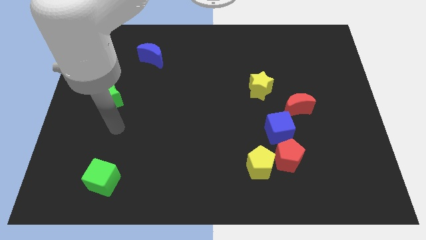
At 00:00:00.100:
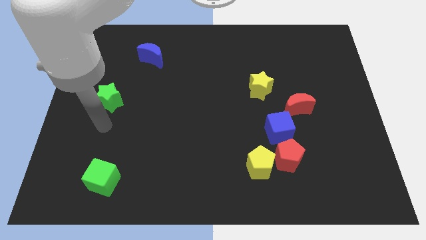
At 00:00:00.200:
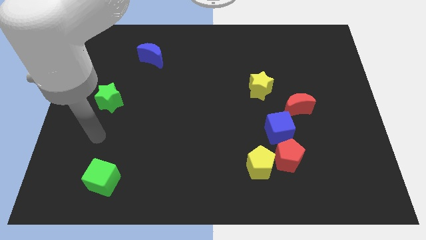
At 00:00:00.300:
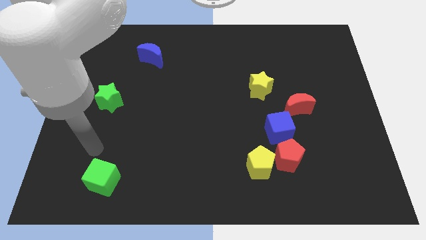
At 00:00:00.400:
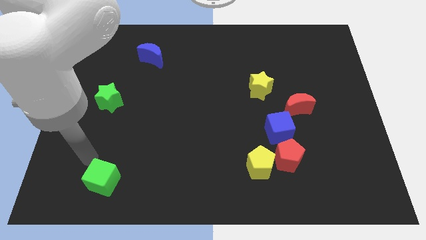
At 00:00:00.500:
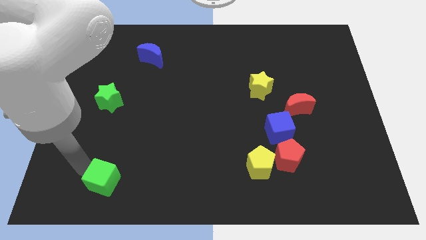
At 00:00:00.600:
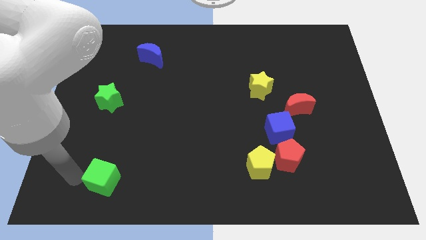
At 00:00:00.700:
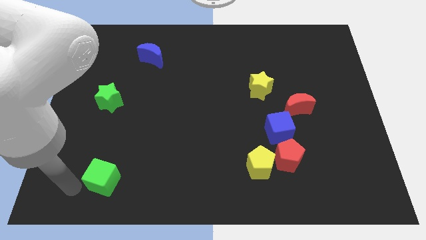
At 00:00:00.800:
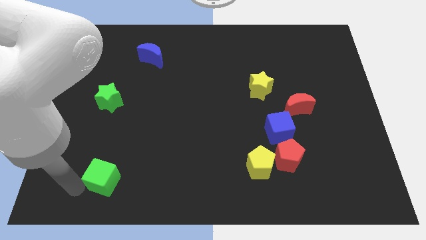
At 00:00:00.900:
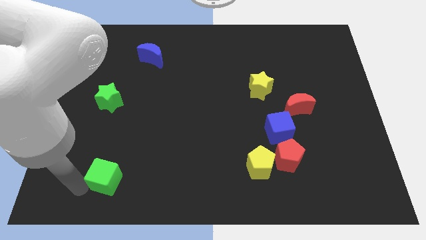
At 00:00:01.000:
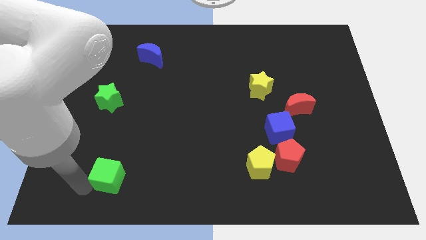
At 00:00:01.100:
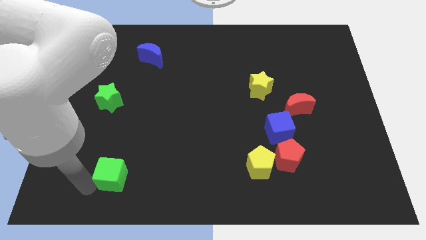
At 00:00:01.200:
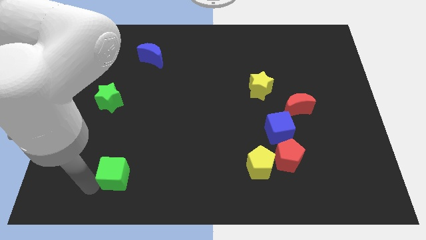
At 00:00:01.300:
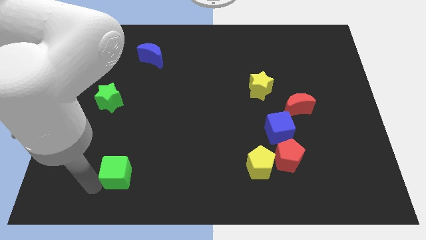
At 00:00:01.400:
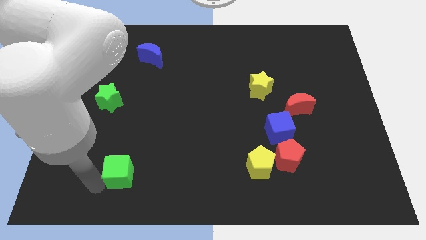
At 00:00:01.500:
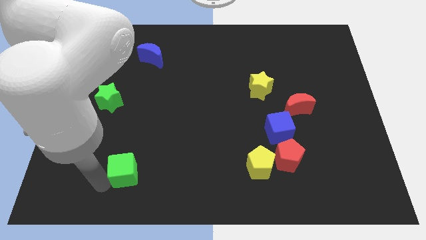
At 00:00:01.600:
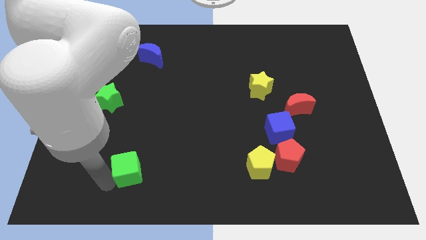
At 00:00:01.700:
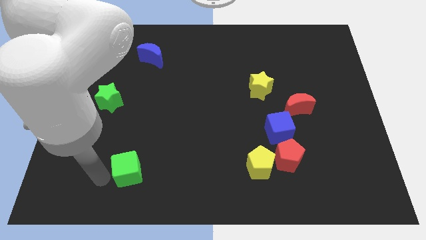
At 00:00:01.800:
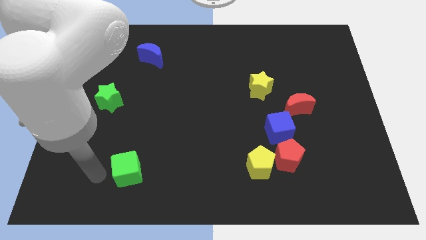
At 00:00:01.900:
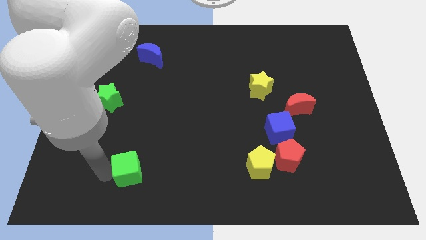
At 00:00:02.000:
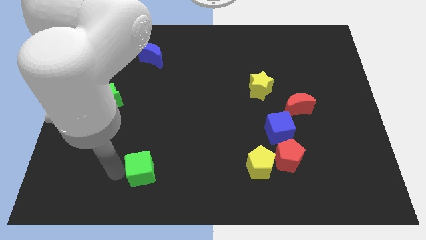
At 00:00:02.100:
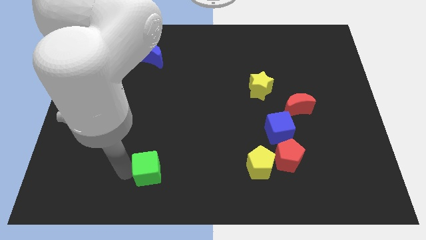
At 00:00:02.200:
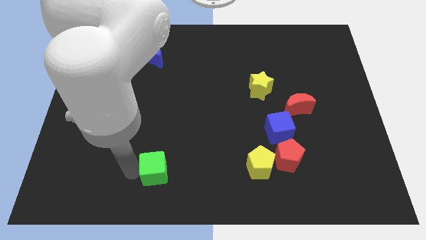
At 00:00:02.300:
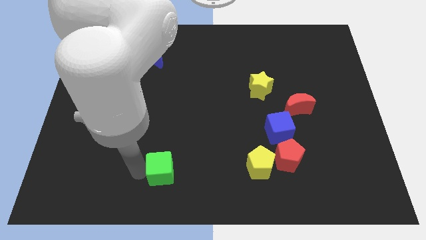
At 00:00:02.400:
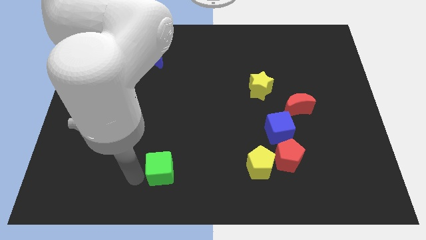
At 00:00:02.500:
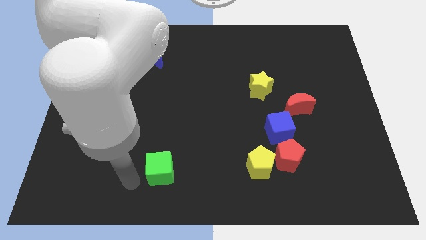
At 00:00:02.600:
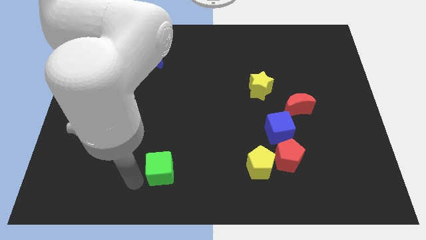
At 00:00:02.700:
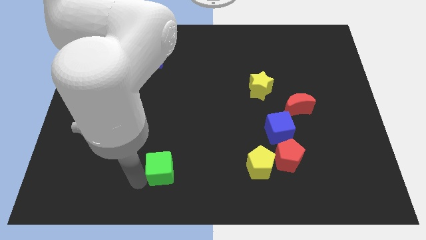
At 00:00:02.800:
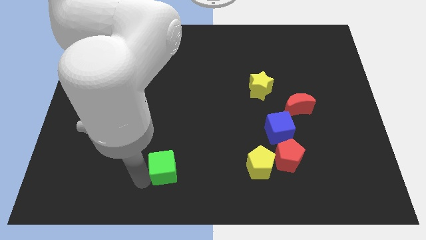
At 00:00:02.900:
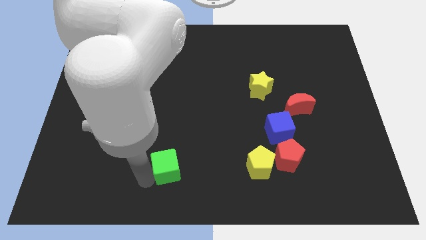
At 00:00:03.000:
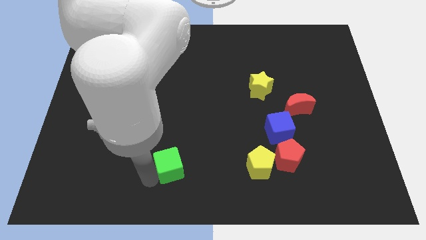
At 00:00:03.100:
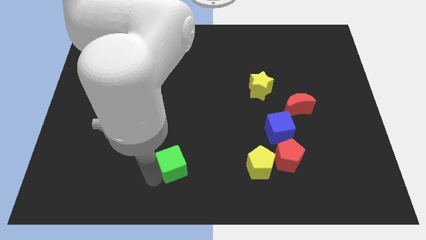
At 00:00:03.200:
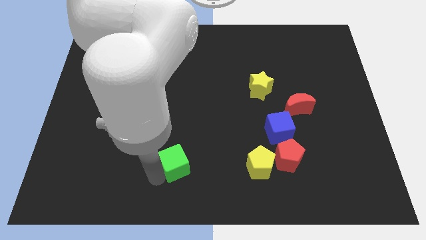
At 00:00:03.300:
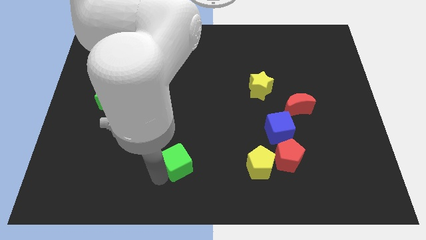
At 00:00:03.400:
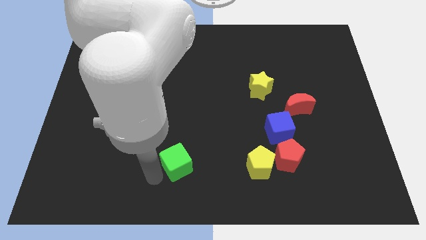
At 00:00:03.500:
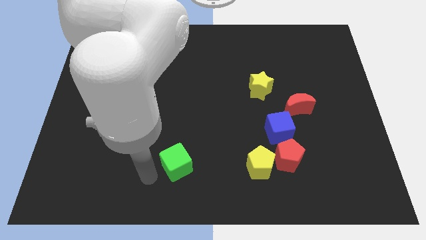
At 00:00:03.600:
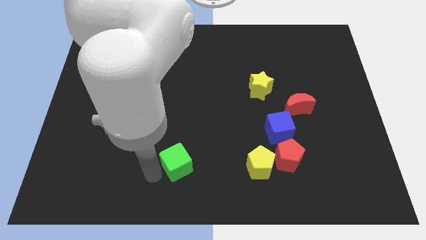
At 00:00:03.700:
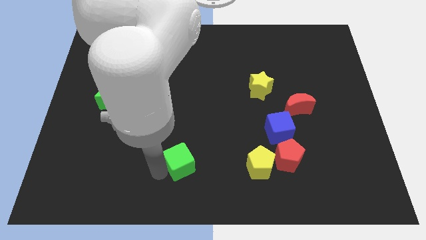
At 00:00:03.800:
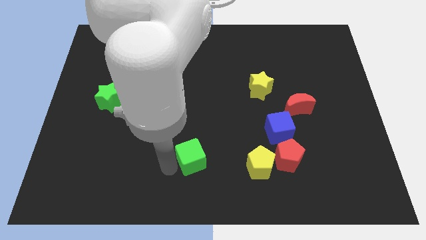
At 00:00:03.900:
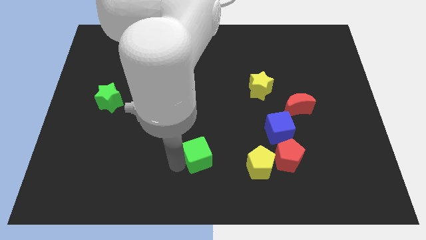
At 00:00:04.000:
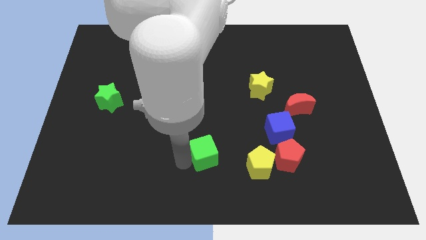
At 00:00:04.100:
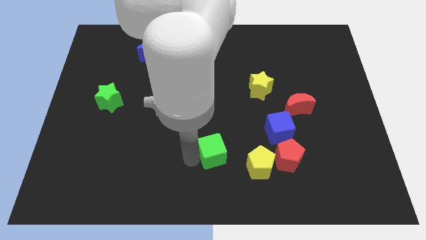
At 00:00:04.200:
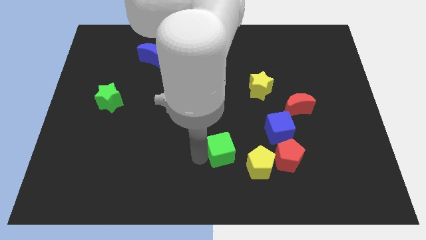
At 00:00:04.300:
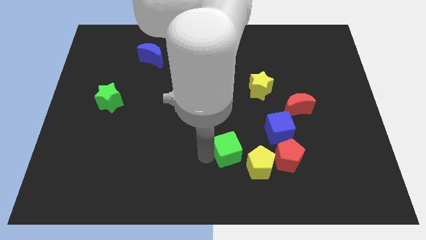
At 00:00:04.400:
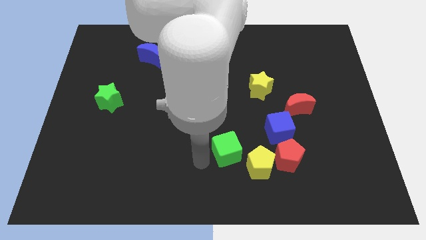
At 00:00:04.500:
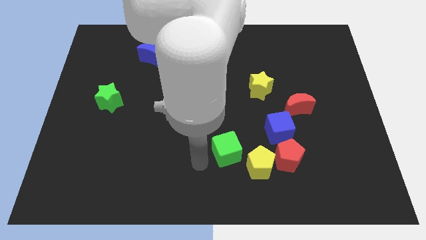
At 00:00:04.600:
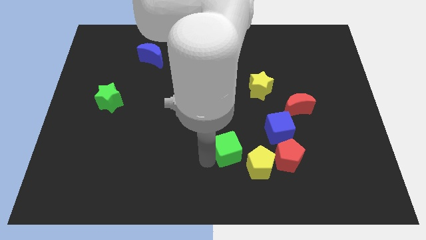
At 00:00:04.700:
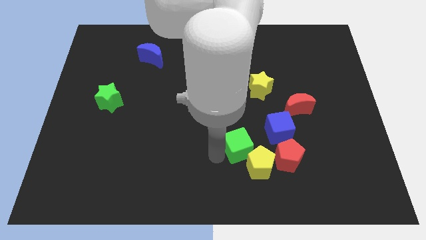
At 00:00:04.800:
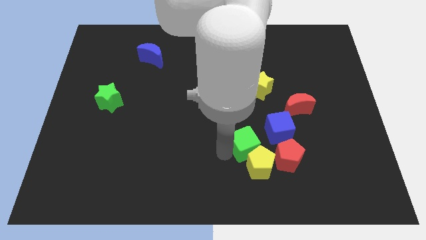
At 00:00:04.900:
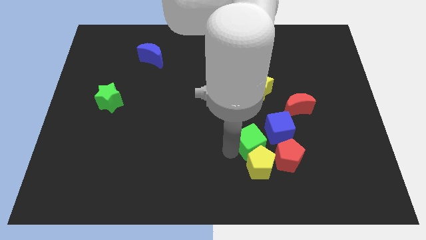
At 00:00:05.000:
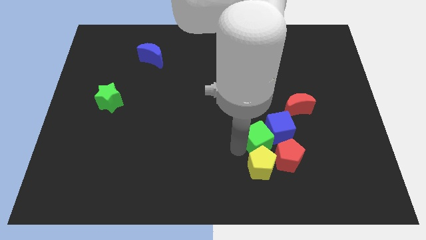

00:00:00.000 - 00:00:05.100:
move the green cube next to the blue cube

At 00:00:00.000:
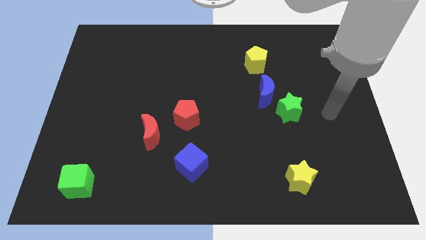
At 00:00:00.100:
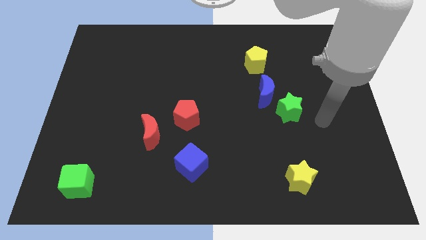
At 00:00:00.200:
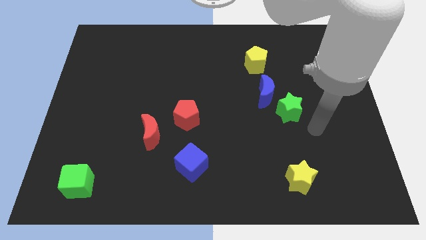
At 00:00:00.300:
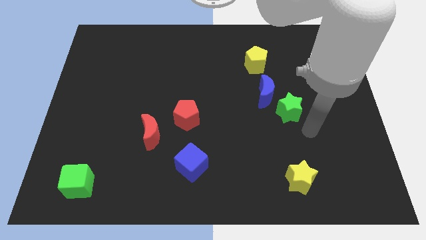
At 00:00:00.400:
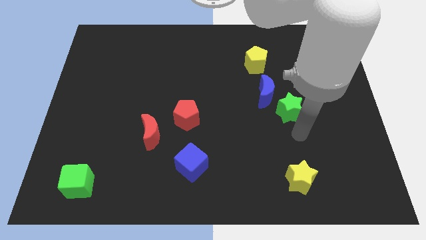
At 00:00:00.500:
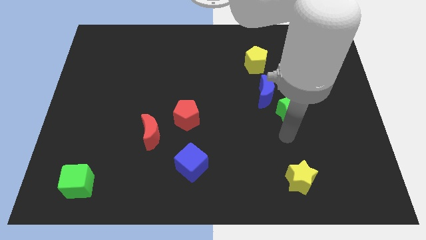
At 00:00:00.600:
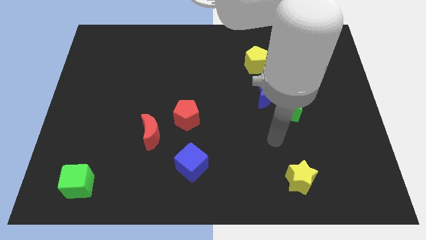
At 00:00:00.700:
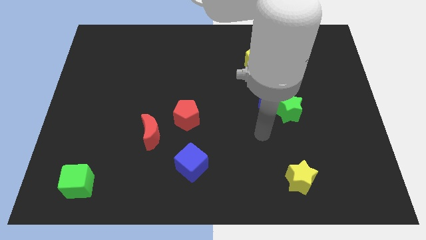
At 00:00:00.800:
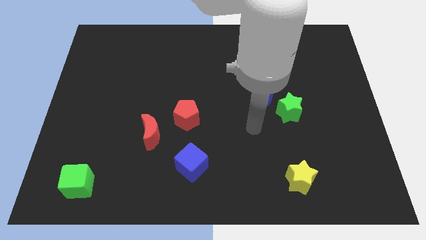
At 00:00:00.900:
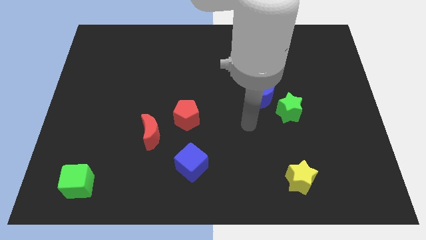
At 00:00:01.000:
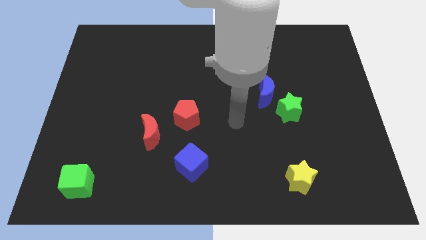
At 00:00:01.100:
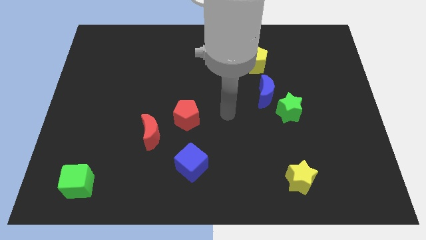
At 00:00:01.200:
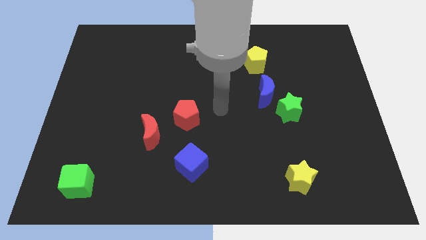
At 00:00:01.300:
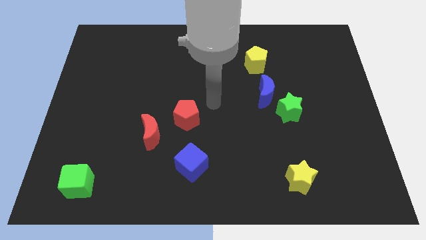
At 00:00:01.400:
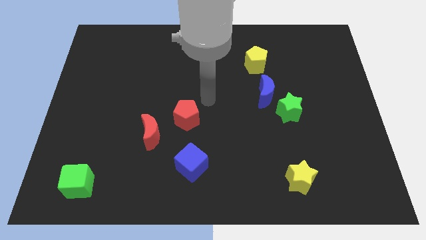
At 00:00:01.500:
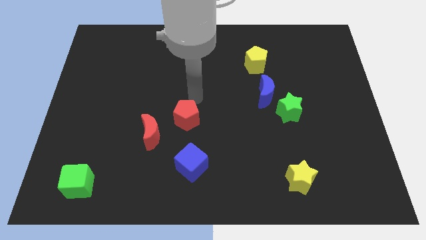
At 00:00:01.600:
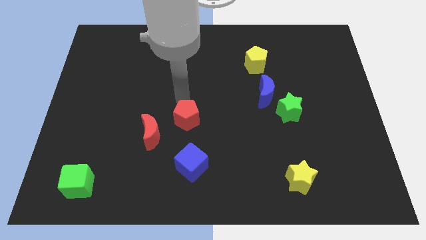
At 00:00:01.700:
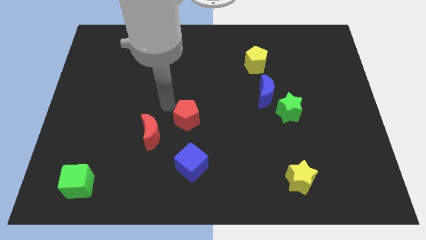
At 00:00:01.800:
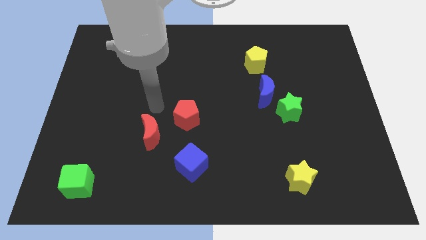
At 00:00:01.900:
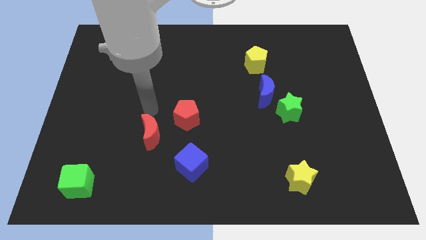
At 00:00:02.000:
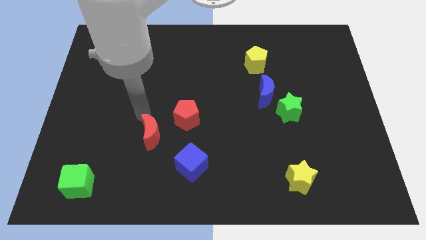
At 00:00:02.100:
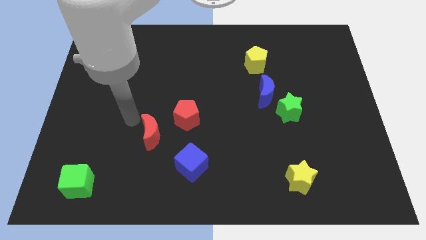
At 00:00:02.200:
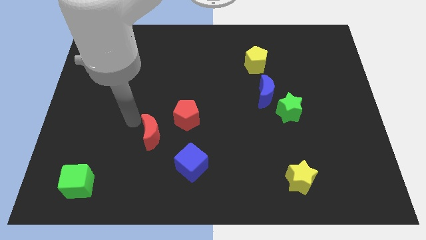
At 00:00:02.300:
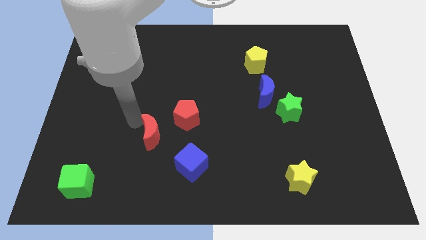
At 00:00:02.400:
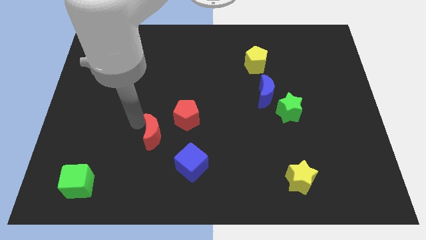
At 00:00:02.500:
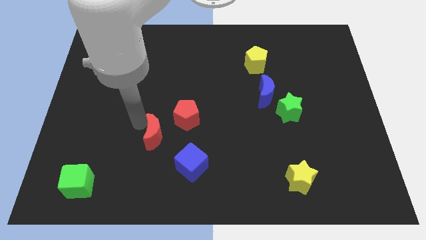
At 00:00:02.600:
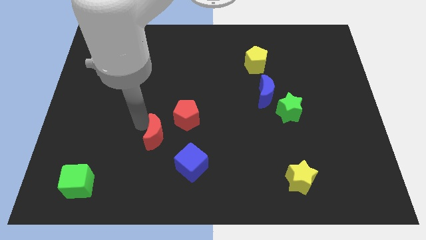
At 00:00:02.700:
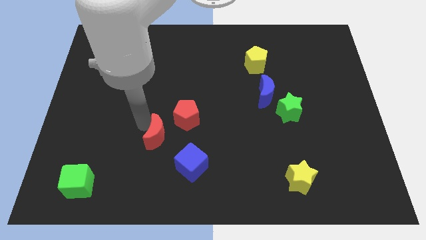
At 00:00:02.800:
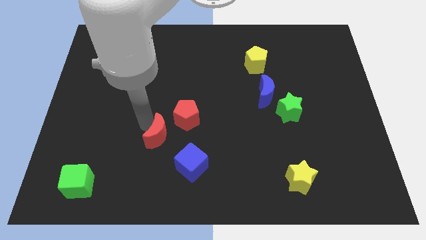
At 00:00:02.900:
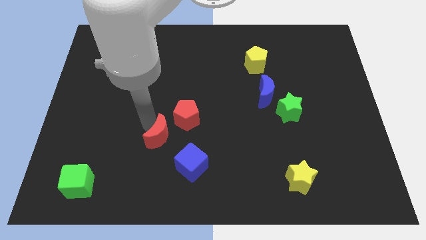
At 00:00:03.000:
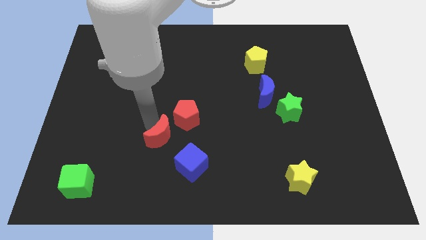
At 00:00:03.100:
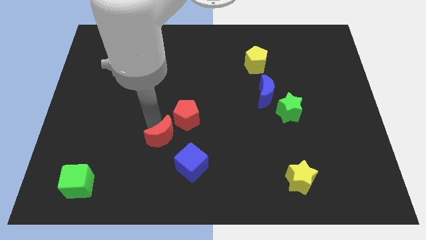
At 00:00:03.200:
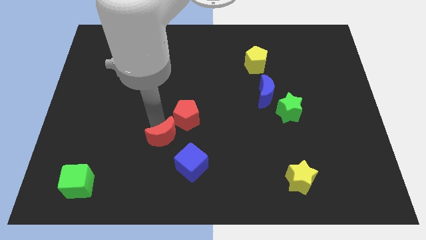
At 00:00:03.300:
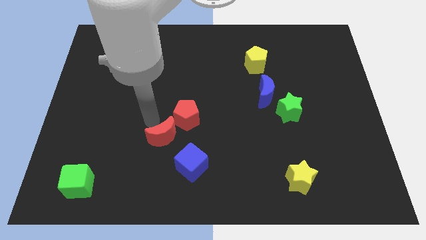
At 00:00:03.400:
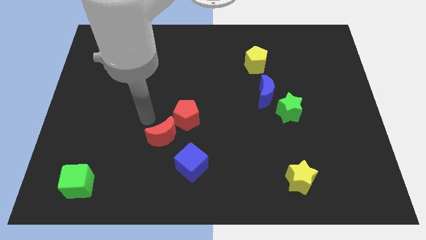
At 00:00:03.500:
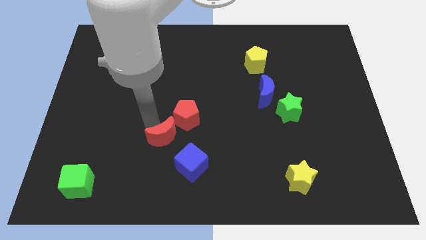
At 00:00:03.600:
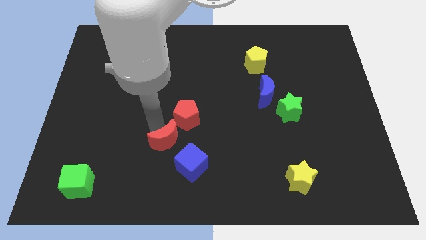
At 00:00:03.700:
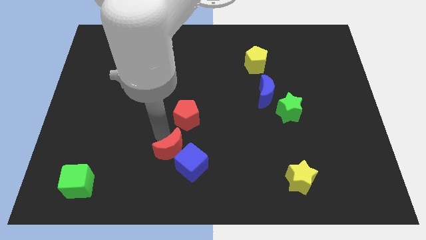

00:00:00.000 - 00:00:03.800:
put the red moon to the blue cube
